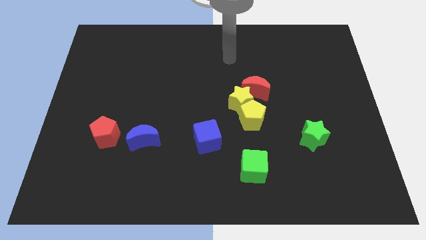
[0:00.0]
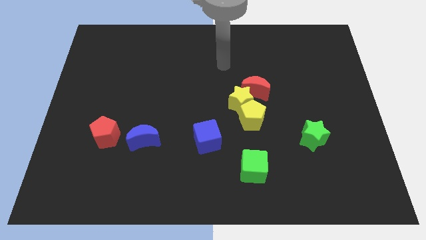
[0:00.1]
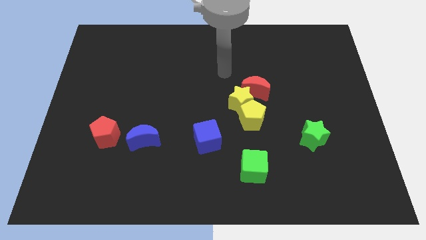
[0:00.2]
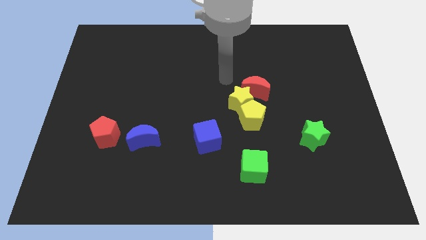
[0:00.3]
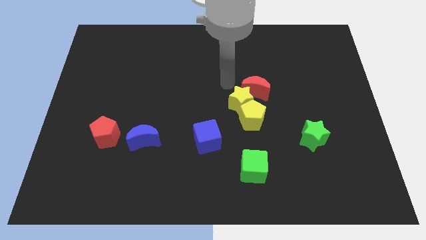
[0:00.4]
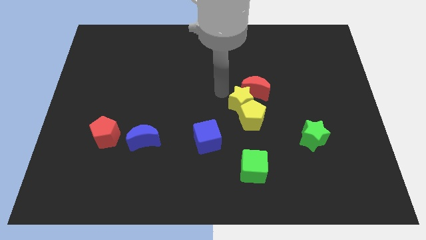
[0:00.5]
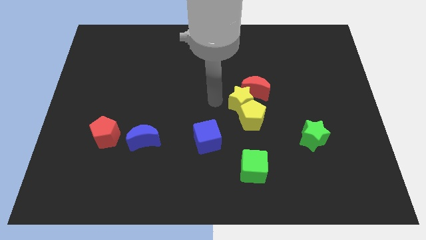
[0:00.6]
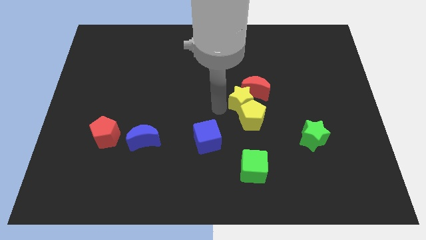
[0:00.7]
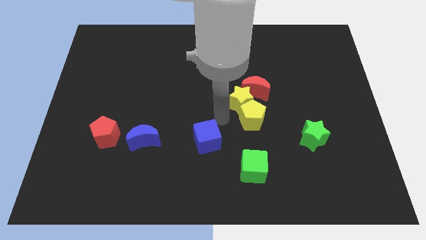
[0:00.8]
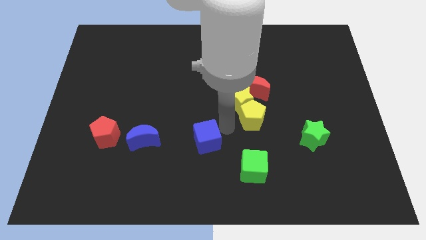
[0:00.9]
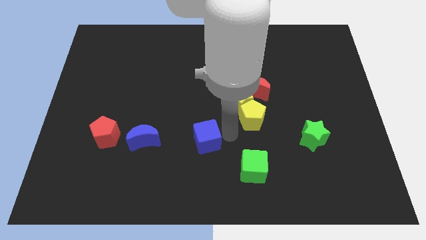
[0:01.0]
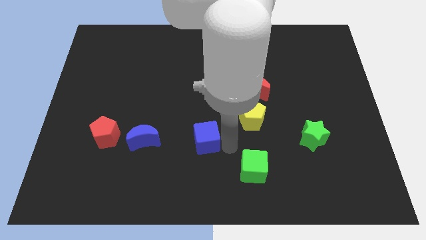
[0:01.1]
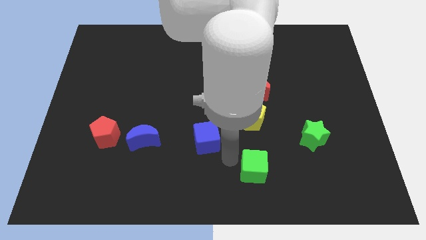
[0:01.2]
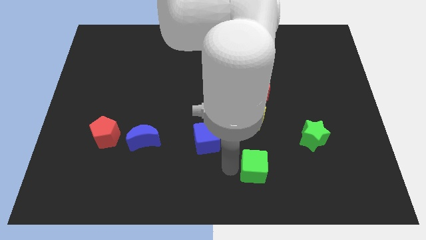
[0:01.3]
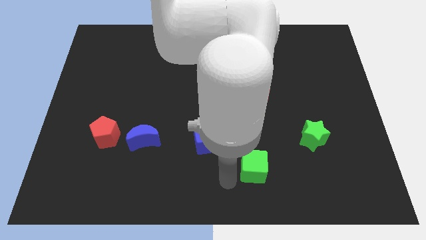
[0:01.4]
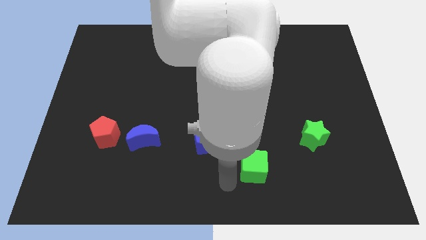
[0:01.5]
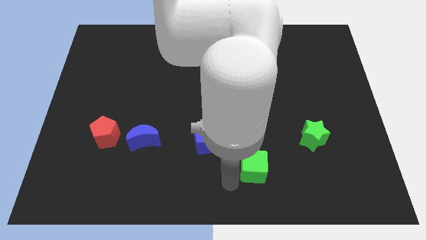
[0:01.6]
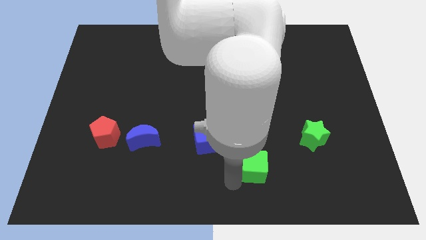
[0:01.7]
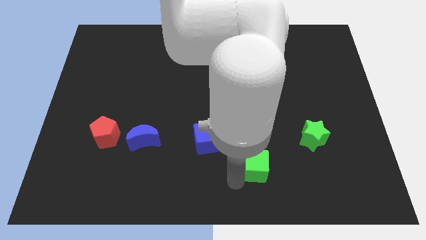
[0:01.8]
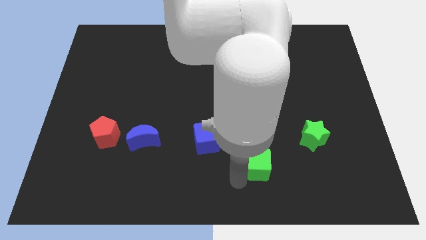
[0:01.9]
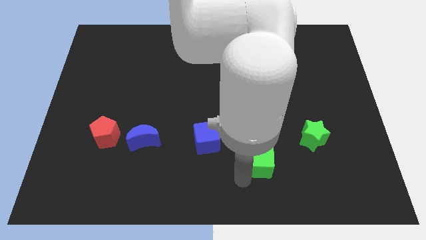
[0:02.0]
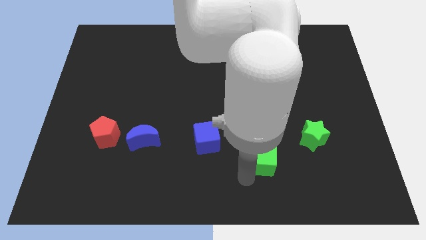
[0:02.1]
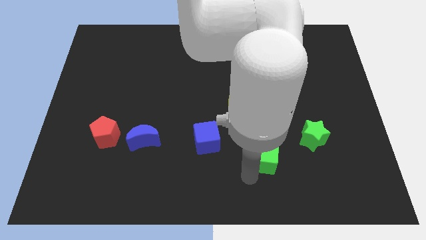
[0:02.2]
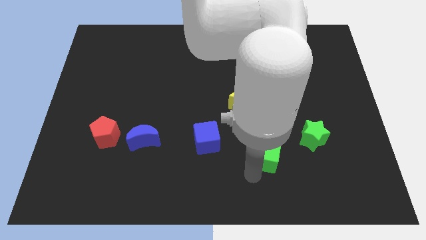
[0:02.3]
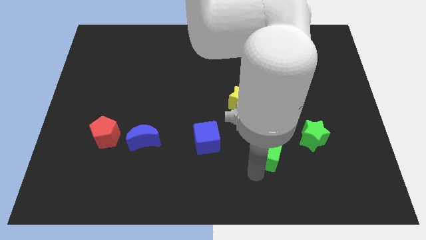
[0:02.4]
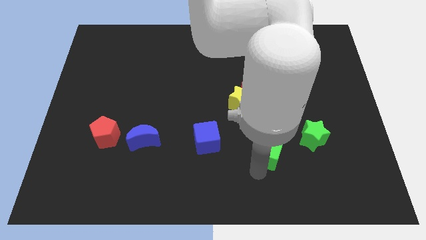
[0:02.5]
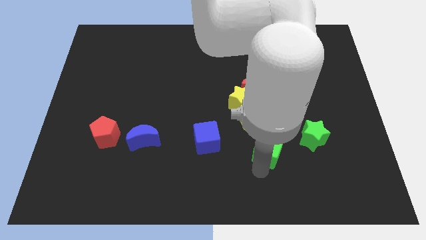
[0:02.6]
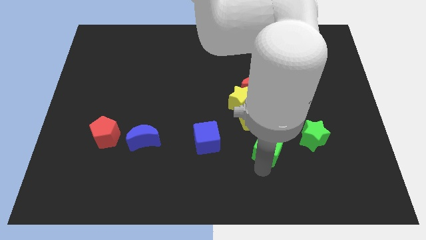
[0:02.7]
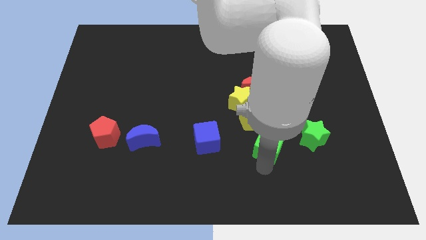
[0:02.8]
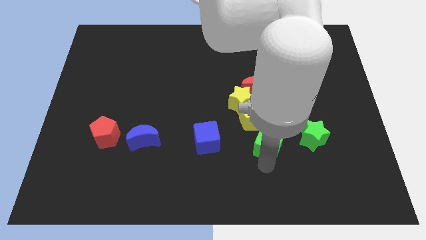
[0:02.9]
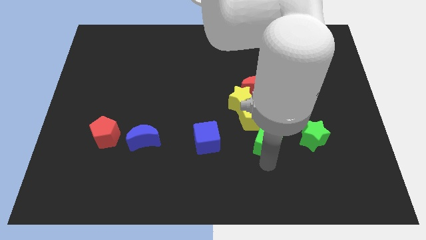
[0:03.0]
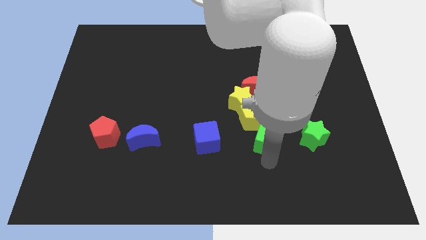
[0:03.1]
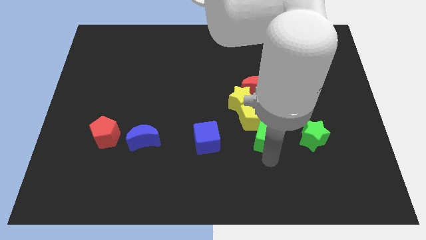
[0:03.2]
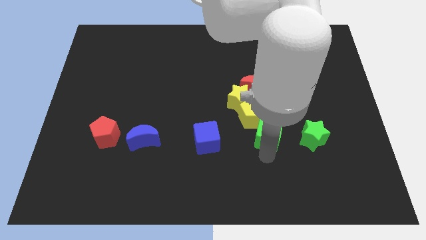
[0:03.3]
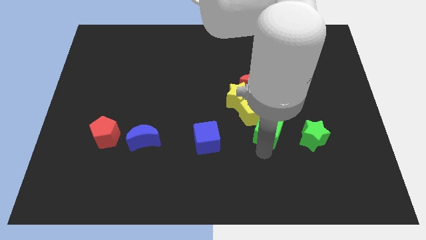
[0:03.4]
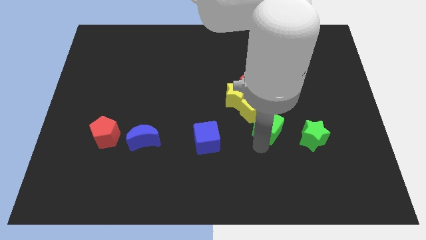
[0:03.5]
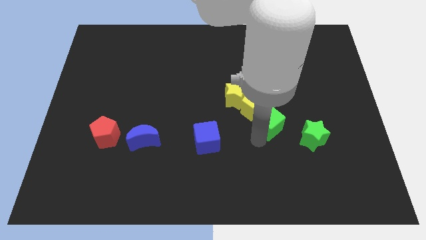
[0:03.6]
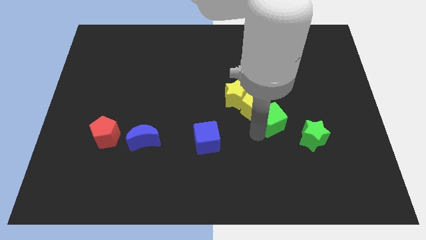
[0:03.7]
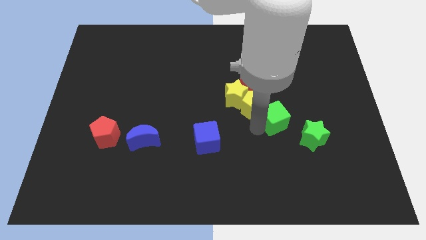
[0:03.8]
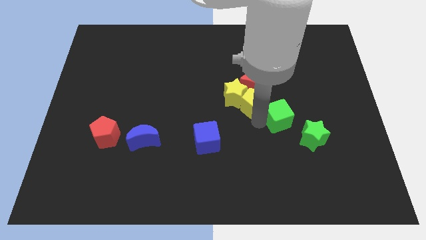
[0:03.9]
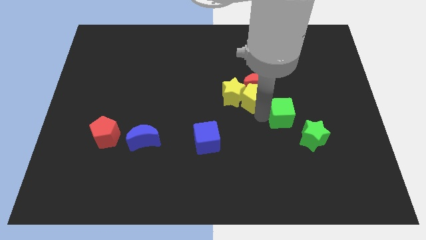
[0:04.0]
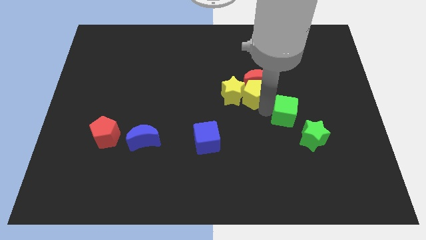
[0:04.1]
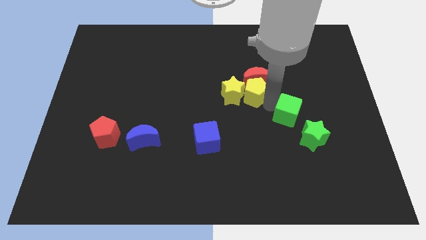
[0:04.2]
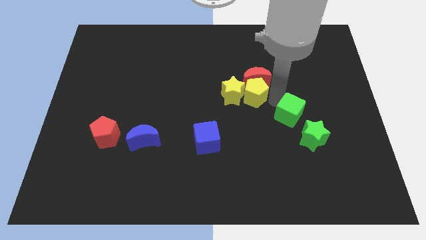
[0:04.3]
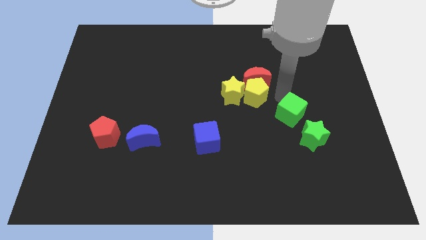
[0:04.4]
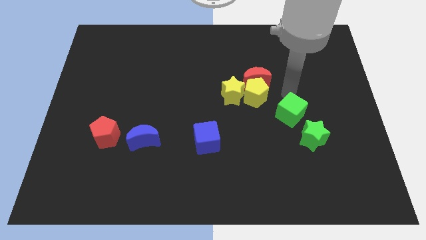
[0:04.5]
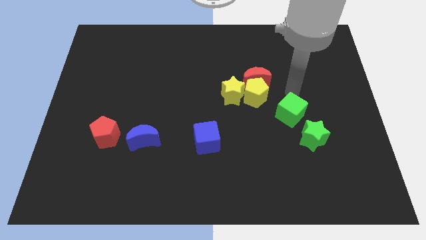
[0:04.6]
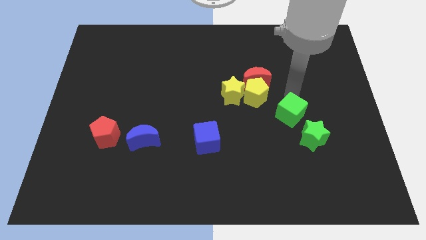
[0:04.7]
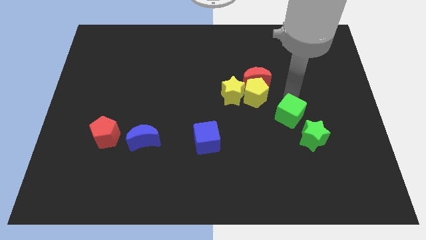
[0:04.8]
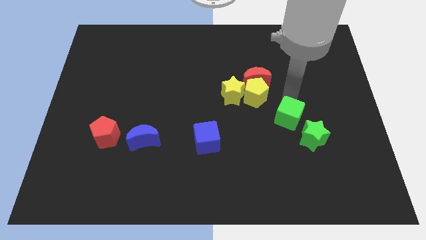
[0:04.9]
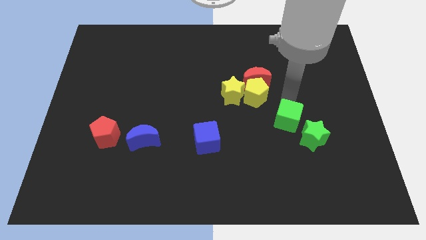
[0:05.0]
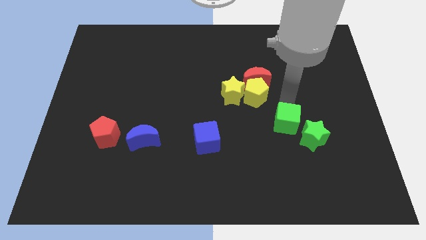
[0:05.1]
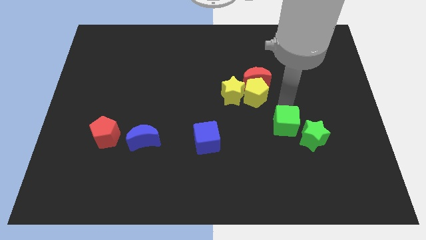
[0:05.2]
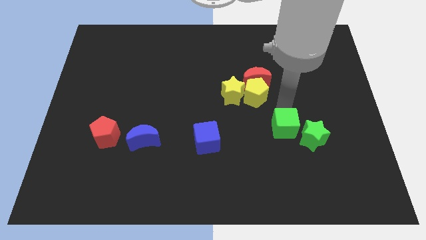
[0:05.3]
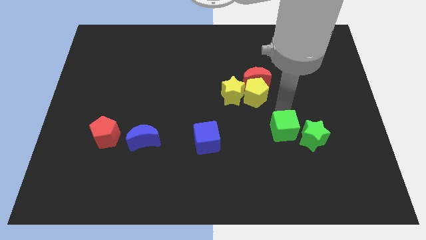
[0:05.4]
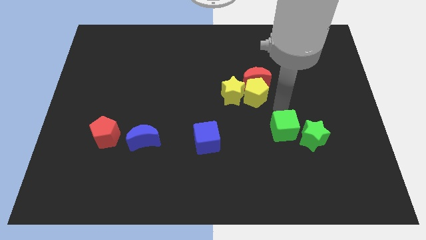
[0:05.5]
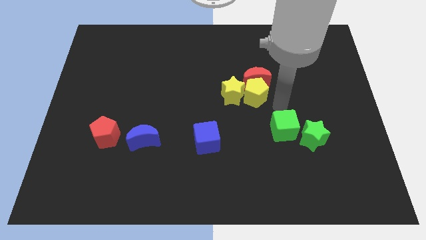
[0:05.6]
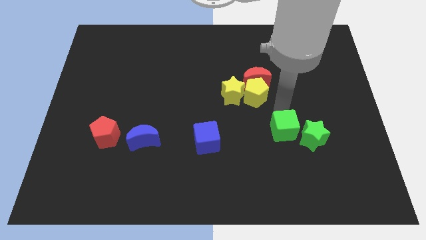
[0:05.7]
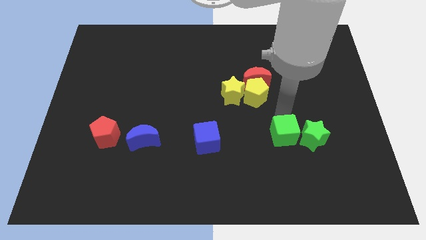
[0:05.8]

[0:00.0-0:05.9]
put the green cube to the green star
